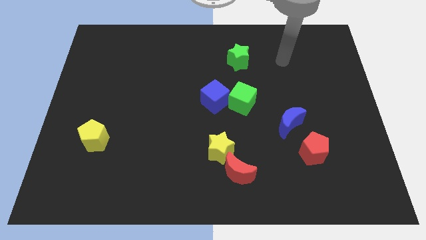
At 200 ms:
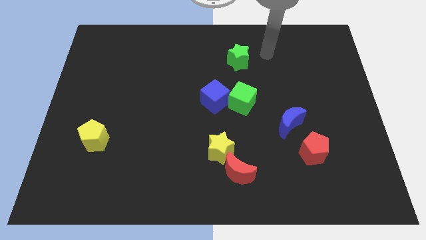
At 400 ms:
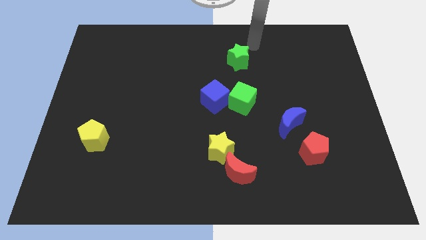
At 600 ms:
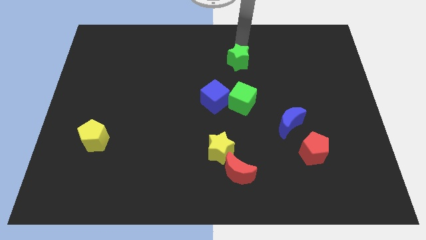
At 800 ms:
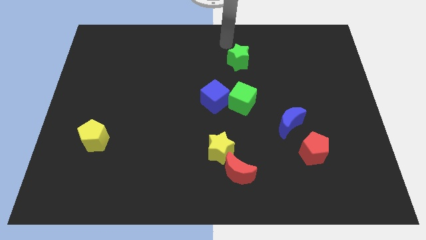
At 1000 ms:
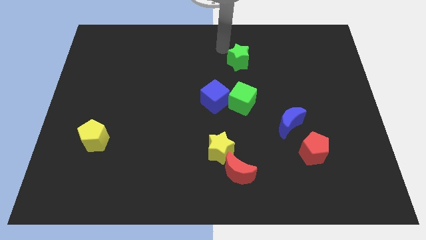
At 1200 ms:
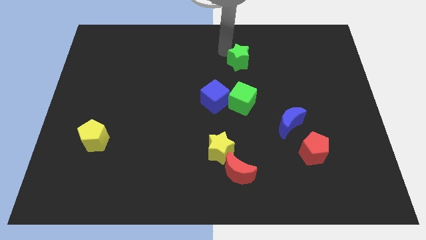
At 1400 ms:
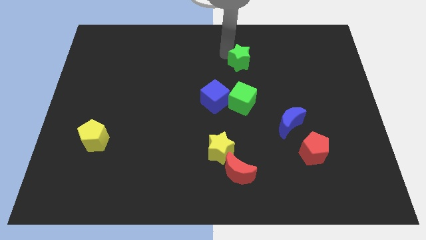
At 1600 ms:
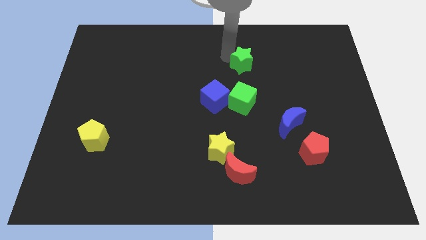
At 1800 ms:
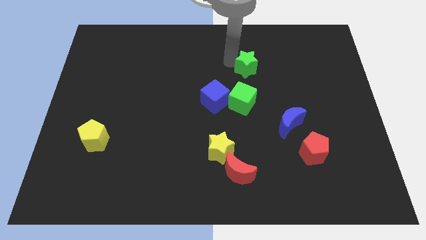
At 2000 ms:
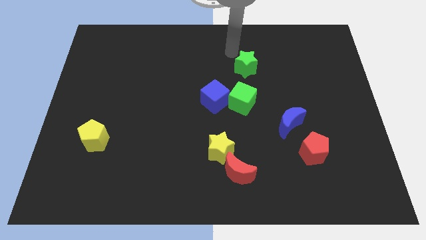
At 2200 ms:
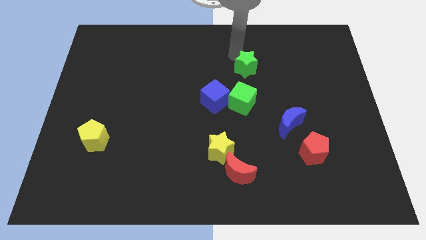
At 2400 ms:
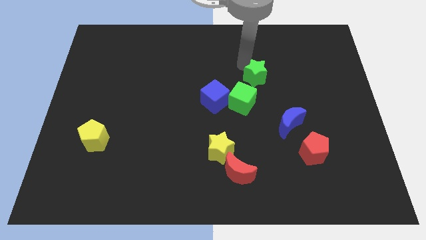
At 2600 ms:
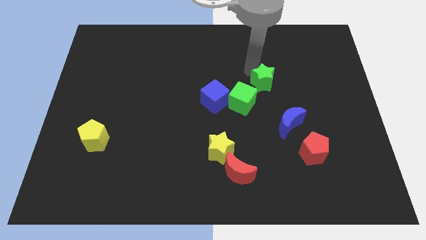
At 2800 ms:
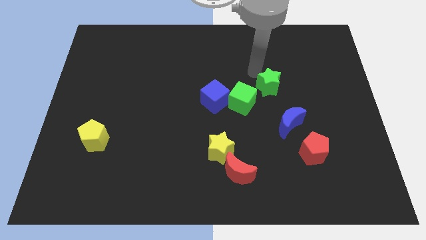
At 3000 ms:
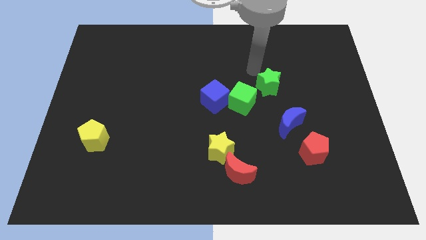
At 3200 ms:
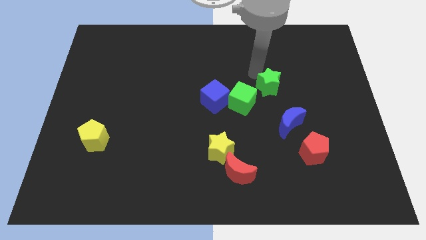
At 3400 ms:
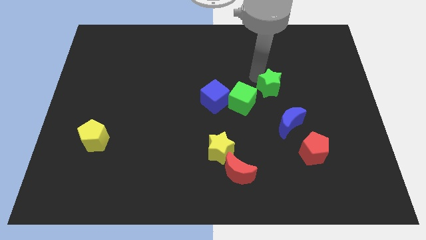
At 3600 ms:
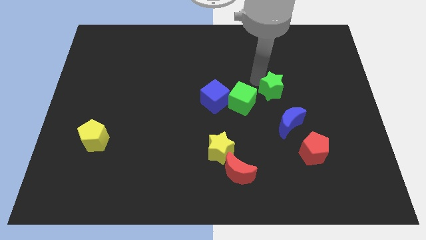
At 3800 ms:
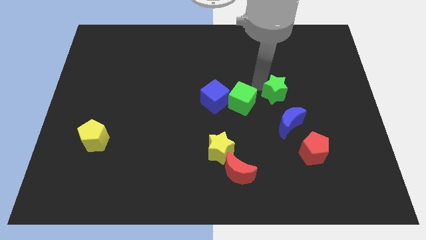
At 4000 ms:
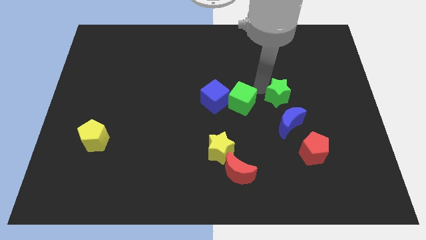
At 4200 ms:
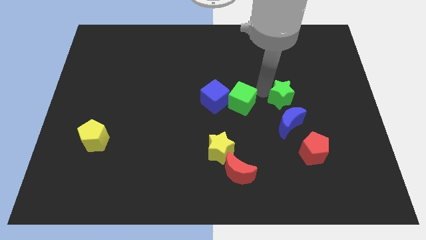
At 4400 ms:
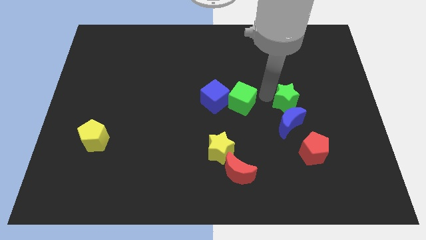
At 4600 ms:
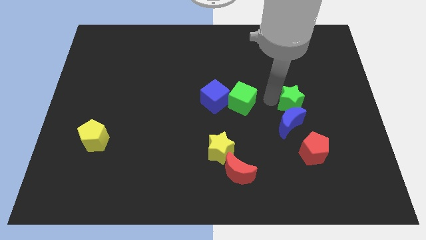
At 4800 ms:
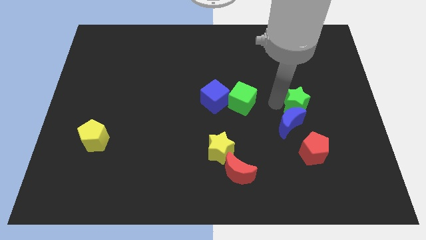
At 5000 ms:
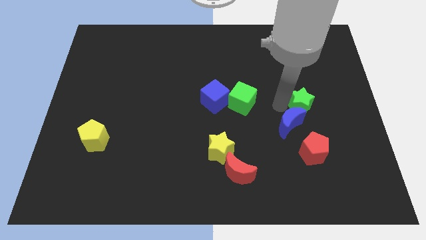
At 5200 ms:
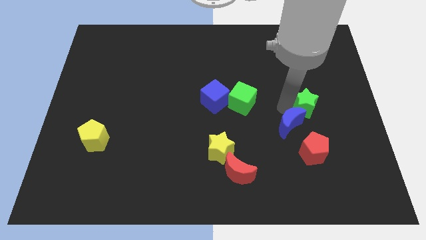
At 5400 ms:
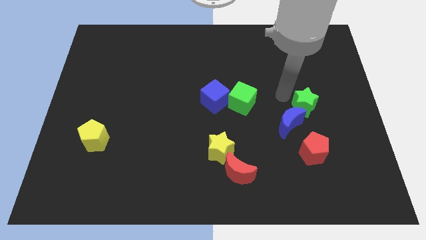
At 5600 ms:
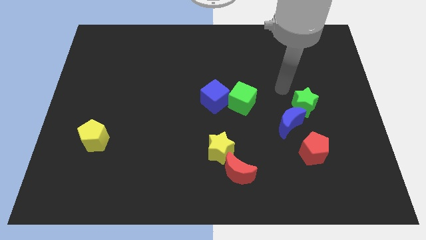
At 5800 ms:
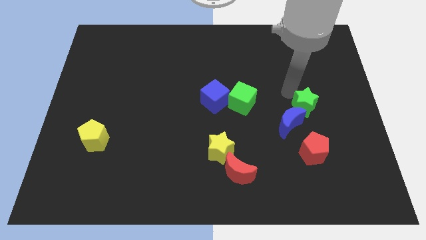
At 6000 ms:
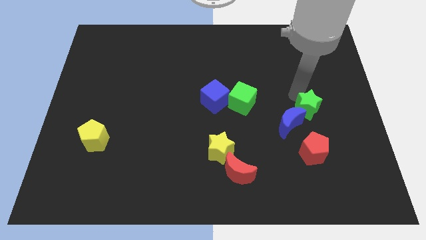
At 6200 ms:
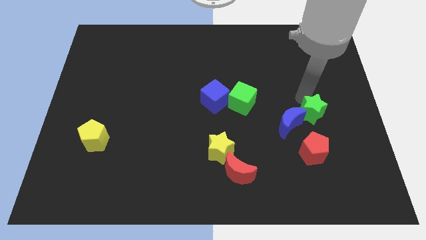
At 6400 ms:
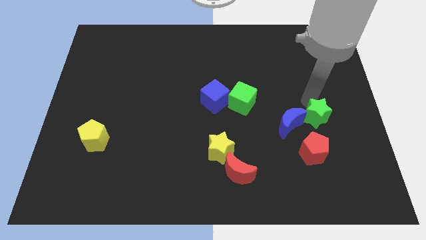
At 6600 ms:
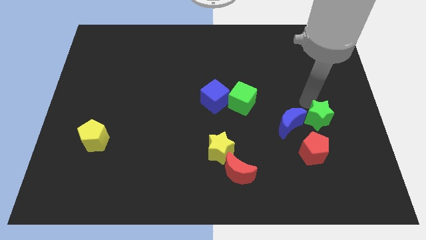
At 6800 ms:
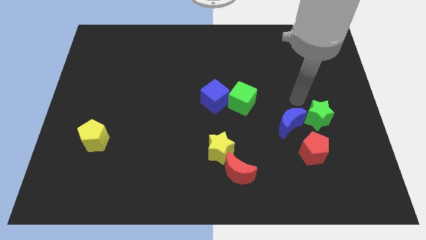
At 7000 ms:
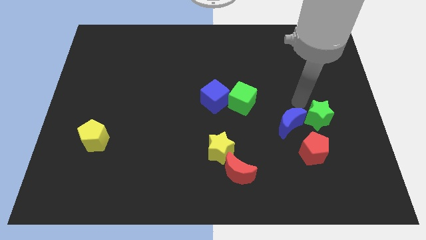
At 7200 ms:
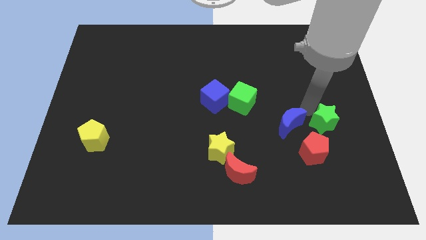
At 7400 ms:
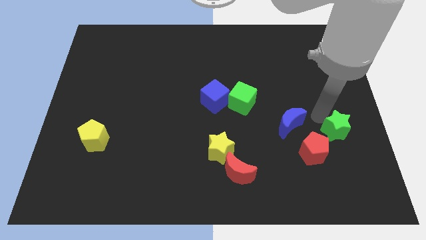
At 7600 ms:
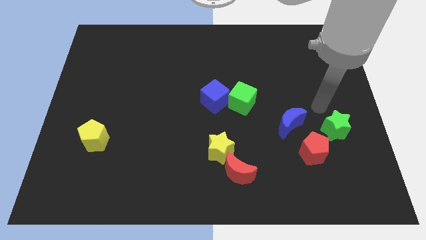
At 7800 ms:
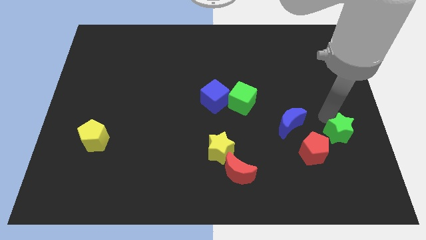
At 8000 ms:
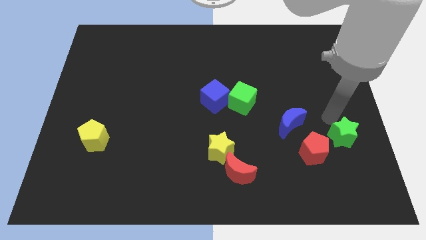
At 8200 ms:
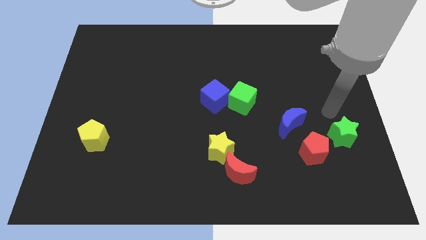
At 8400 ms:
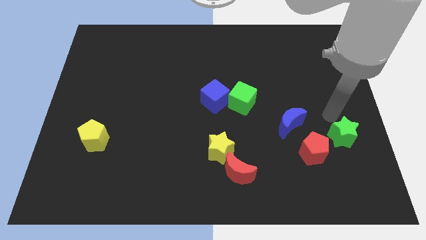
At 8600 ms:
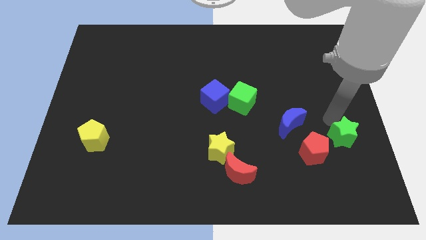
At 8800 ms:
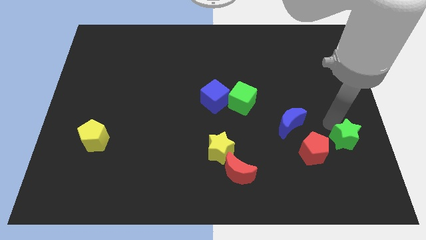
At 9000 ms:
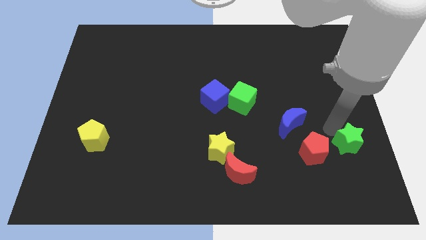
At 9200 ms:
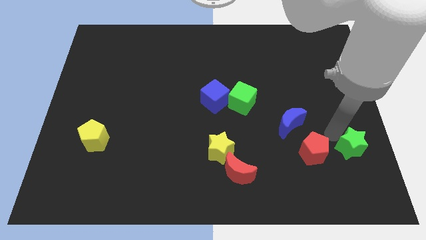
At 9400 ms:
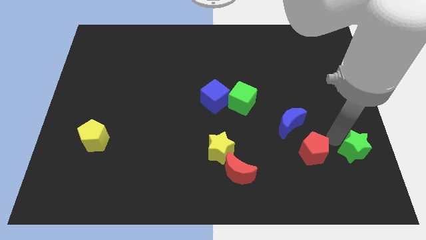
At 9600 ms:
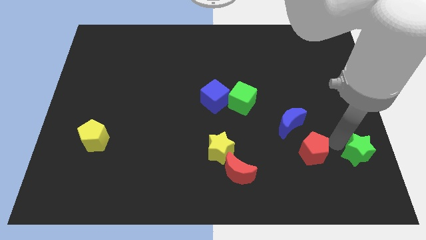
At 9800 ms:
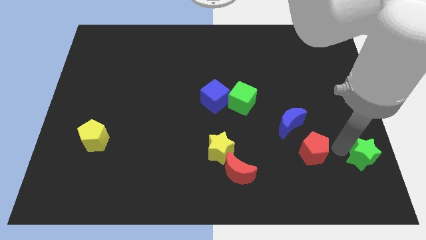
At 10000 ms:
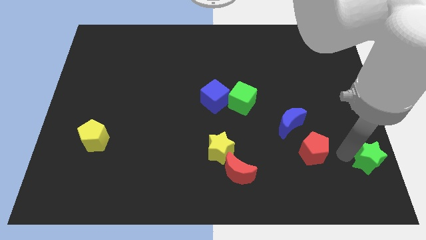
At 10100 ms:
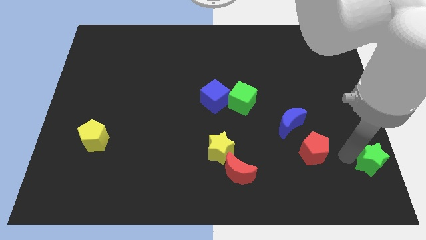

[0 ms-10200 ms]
slide the green star to the lower right corner

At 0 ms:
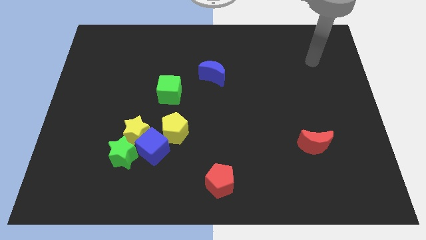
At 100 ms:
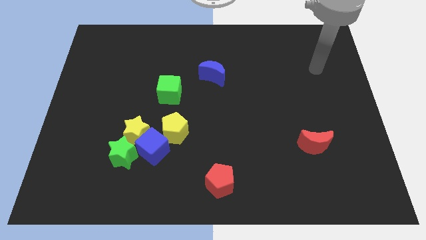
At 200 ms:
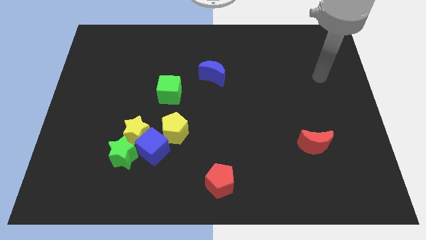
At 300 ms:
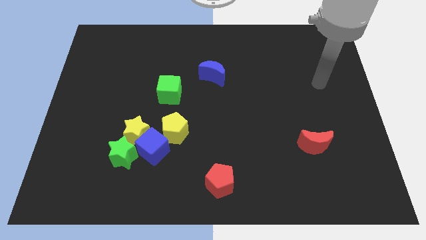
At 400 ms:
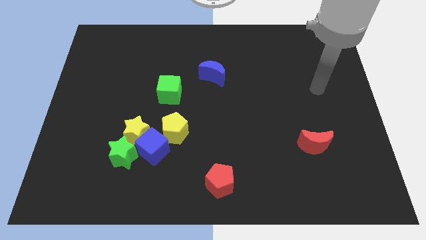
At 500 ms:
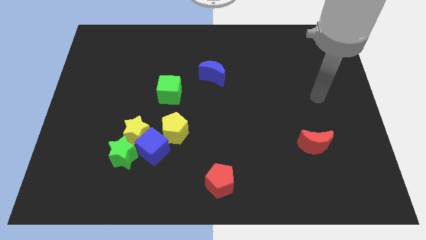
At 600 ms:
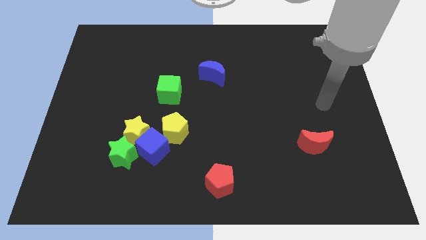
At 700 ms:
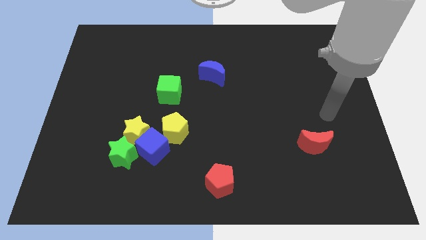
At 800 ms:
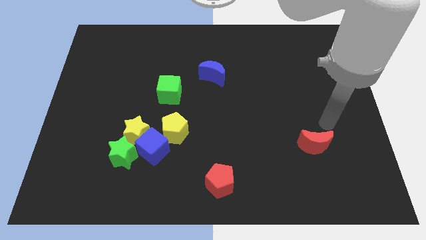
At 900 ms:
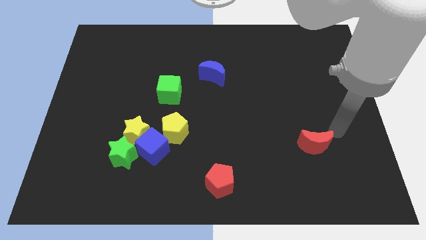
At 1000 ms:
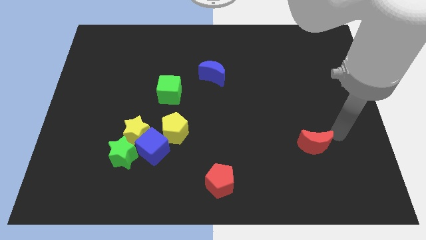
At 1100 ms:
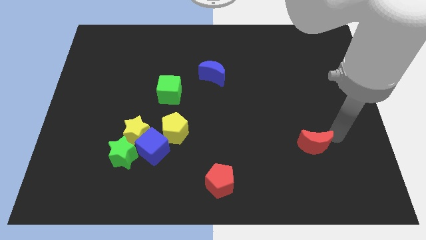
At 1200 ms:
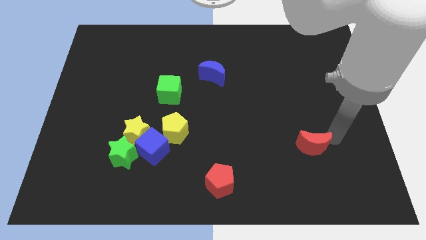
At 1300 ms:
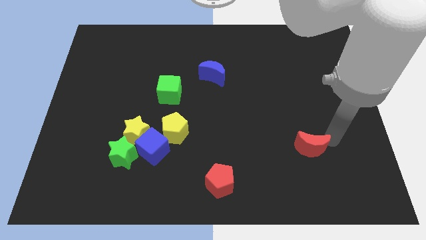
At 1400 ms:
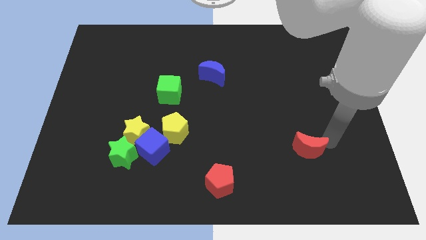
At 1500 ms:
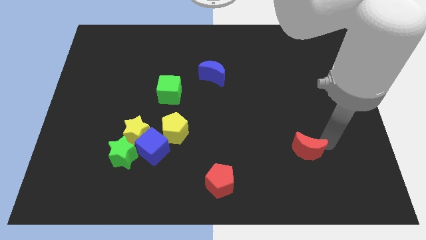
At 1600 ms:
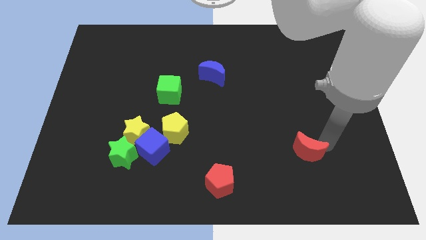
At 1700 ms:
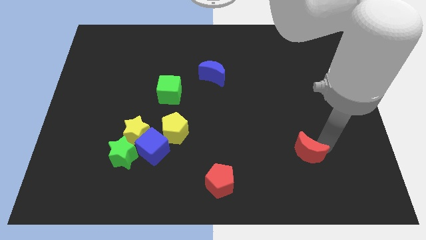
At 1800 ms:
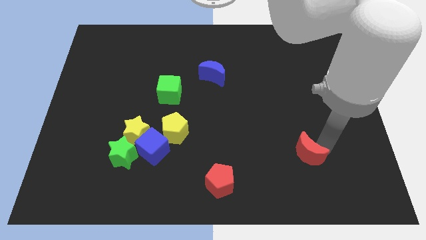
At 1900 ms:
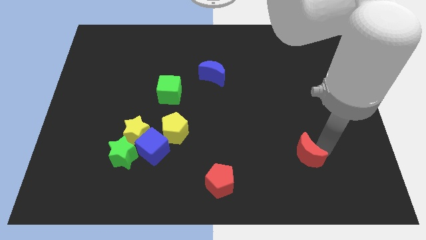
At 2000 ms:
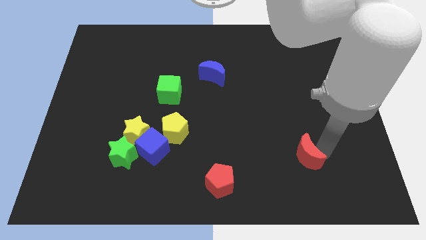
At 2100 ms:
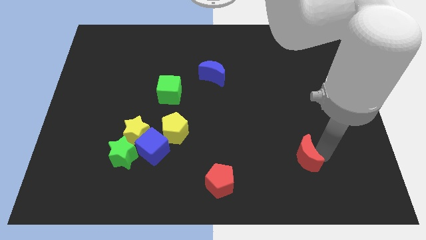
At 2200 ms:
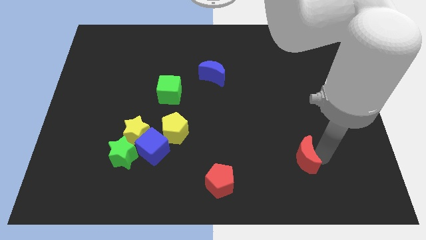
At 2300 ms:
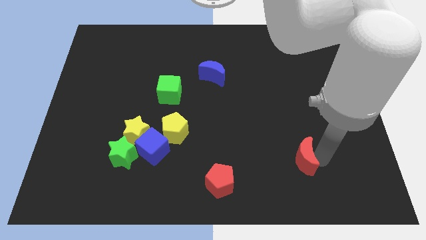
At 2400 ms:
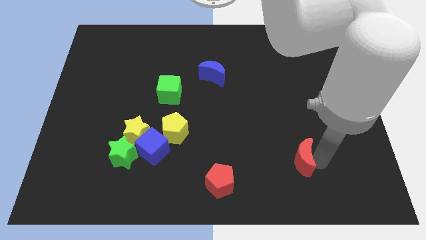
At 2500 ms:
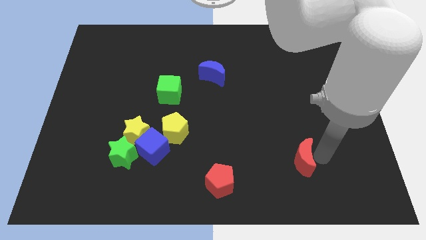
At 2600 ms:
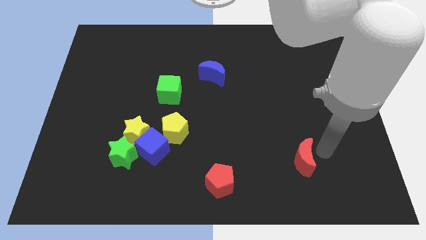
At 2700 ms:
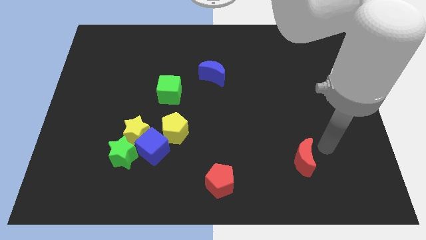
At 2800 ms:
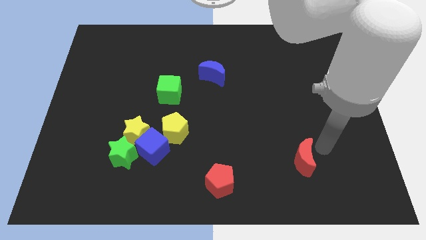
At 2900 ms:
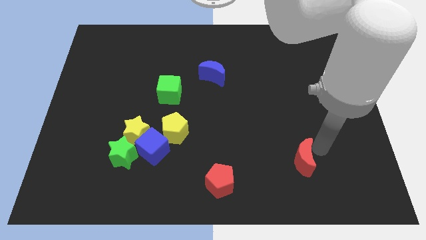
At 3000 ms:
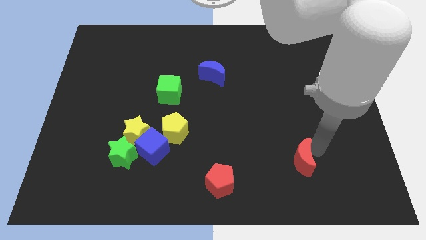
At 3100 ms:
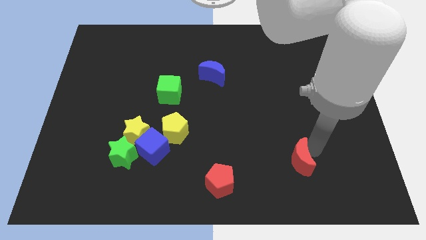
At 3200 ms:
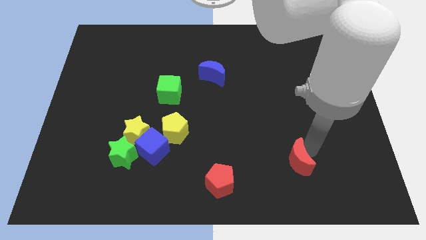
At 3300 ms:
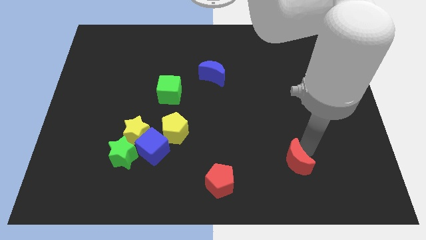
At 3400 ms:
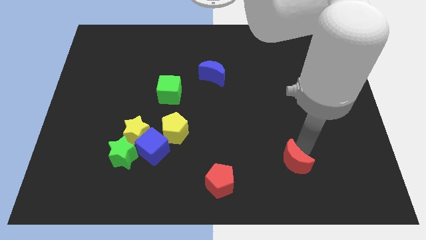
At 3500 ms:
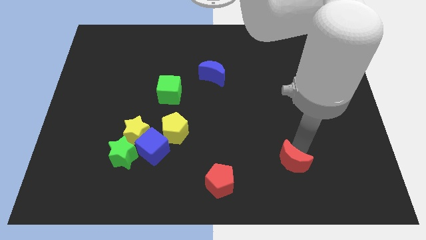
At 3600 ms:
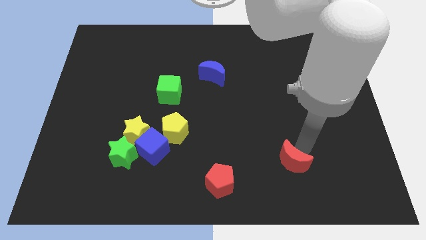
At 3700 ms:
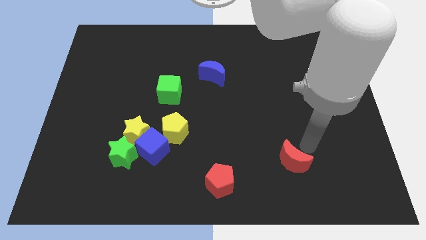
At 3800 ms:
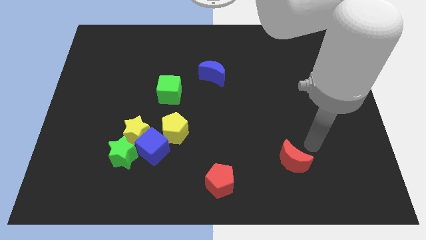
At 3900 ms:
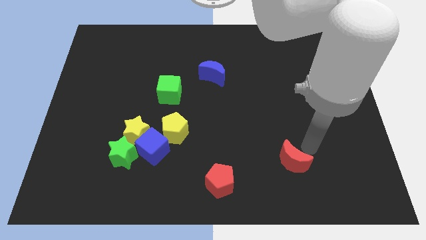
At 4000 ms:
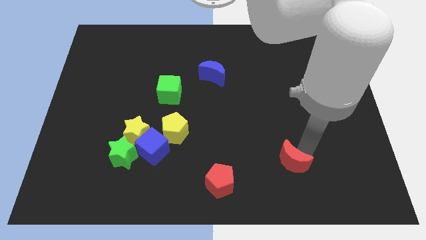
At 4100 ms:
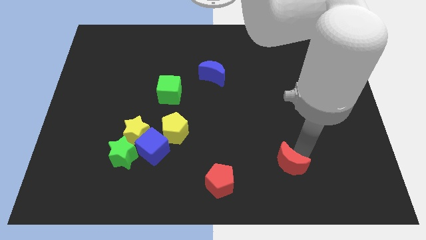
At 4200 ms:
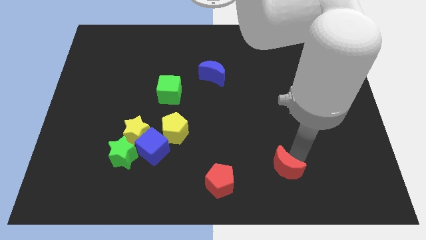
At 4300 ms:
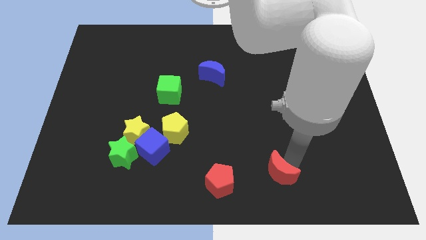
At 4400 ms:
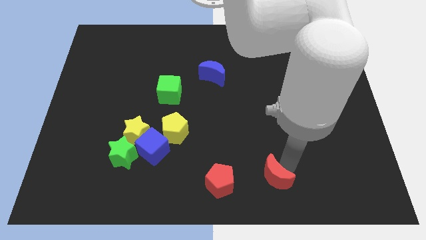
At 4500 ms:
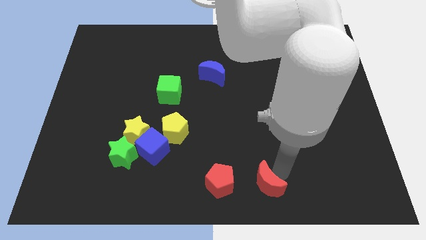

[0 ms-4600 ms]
put the red moon to the bottom
